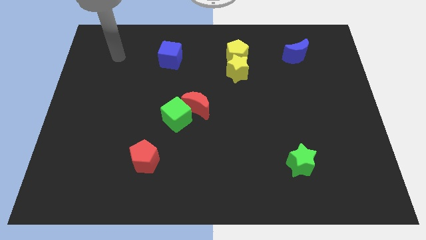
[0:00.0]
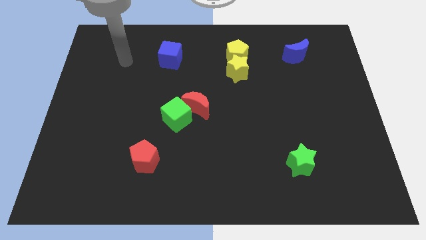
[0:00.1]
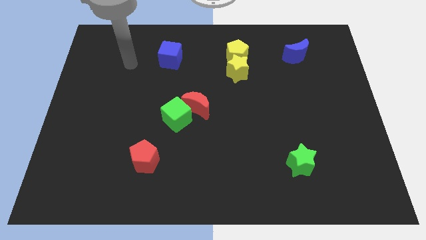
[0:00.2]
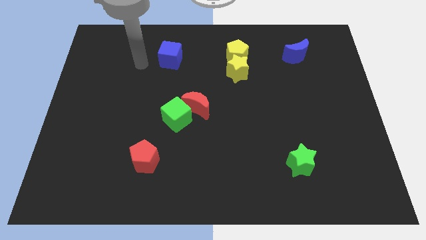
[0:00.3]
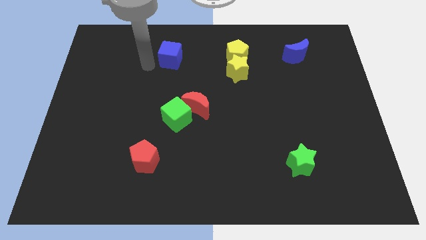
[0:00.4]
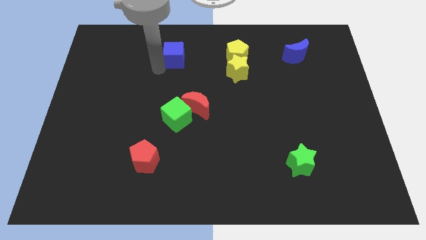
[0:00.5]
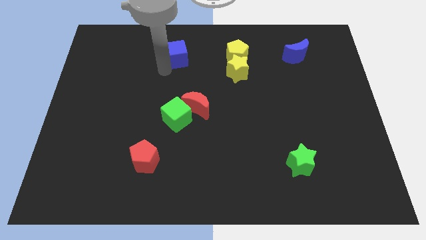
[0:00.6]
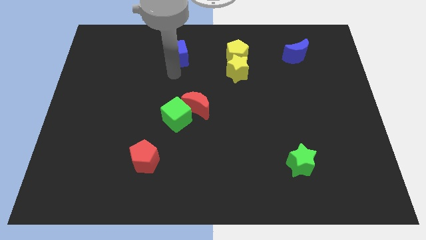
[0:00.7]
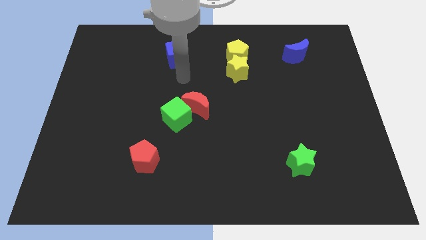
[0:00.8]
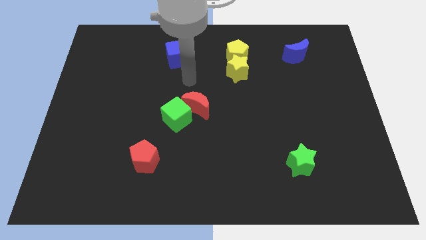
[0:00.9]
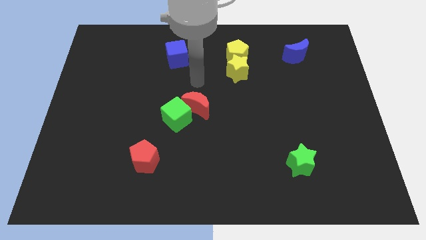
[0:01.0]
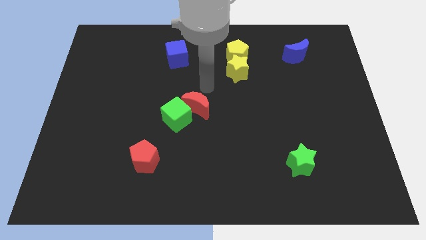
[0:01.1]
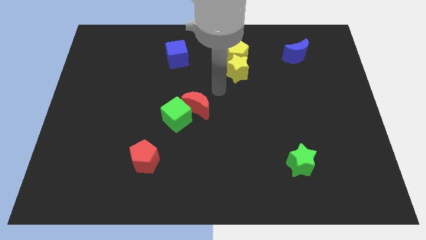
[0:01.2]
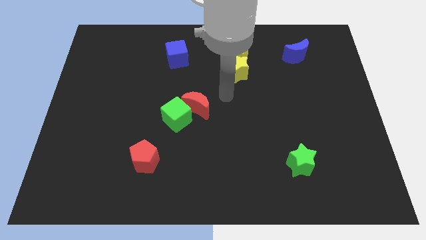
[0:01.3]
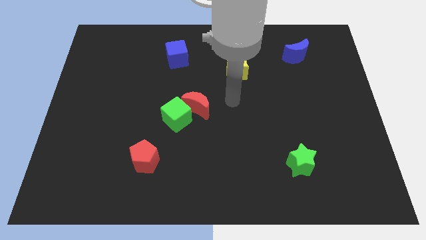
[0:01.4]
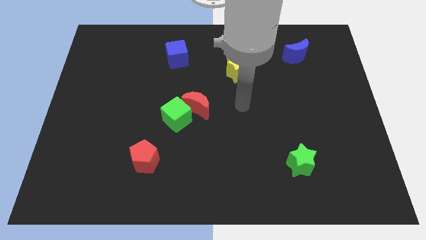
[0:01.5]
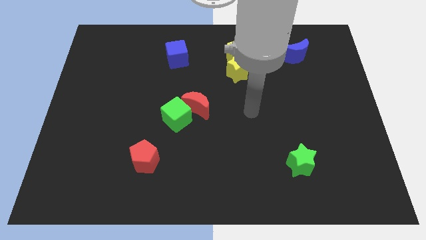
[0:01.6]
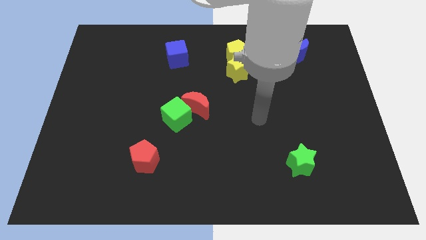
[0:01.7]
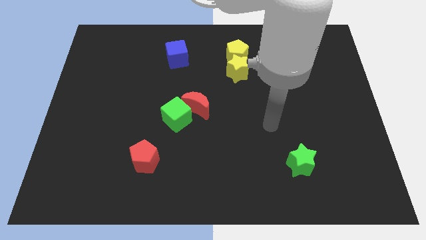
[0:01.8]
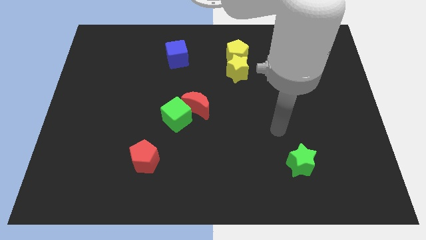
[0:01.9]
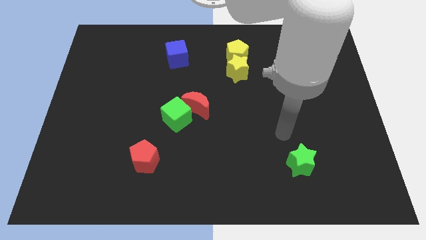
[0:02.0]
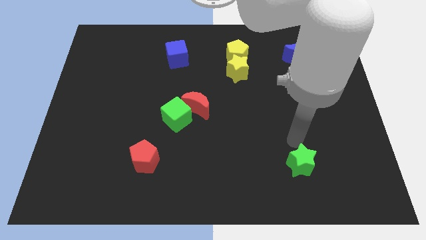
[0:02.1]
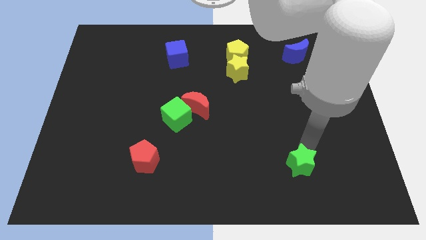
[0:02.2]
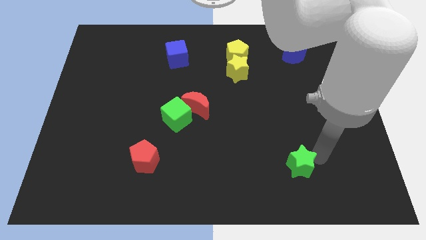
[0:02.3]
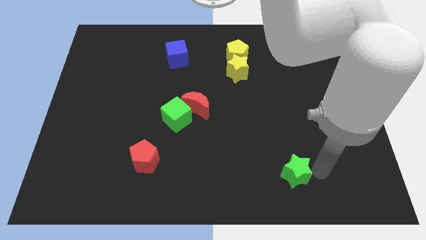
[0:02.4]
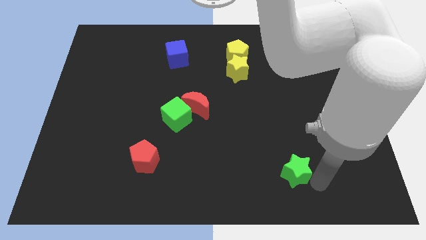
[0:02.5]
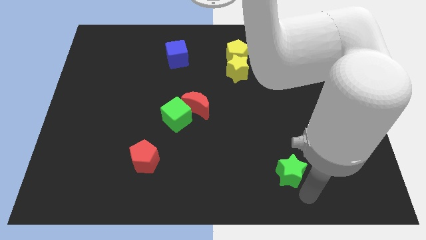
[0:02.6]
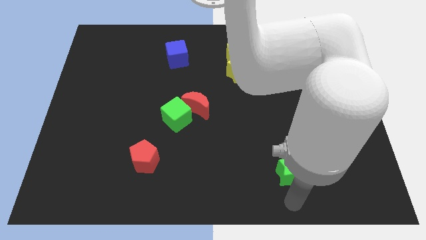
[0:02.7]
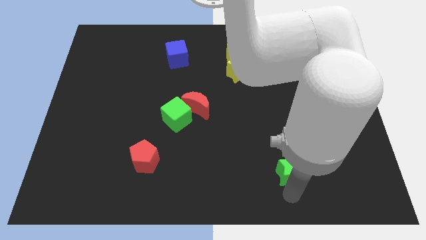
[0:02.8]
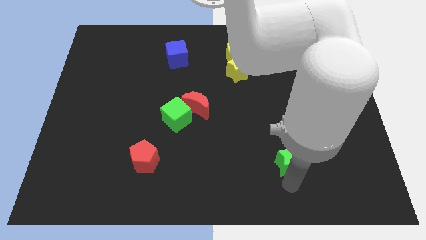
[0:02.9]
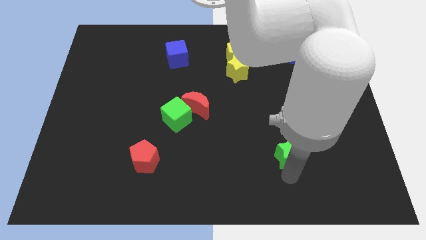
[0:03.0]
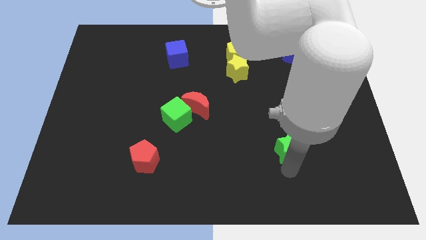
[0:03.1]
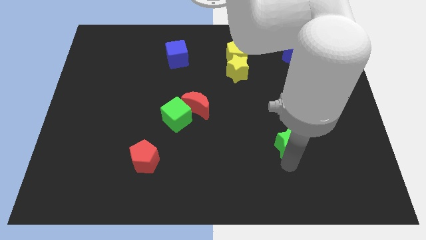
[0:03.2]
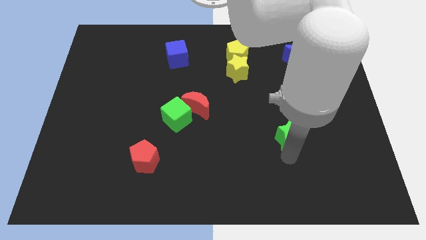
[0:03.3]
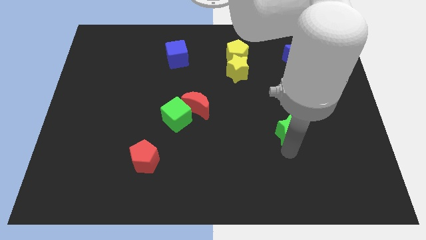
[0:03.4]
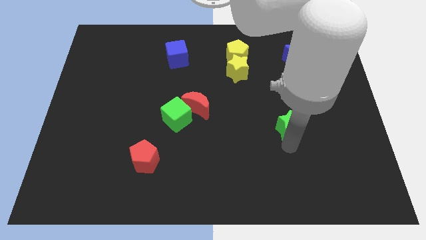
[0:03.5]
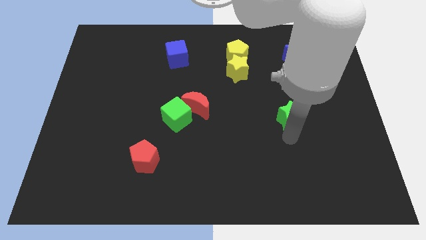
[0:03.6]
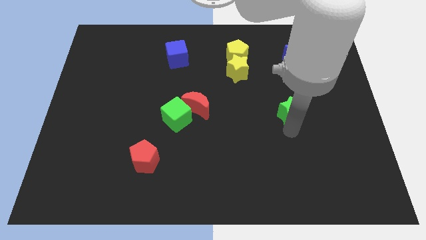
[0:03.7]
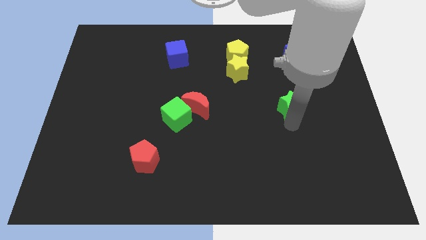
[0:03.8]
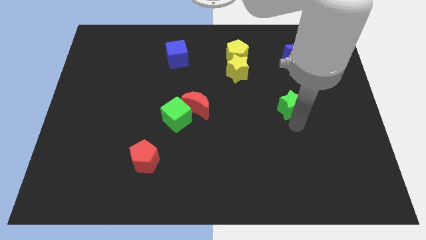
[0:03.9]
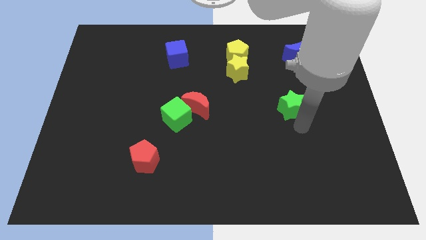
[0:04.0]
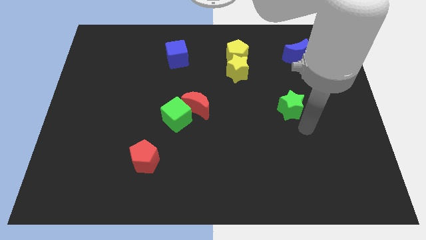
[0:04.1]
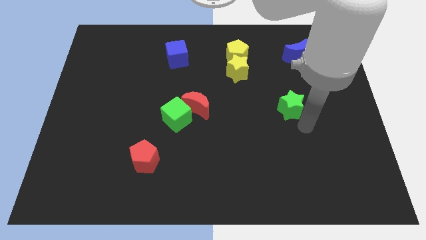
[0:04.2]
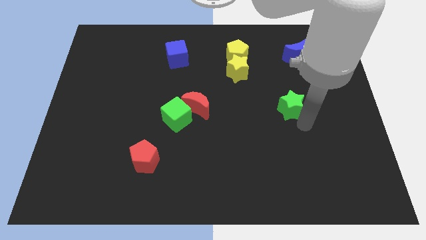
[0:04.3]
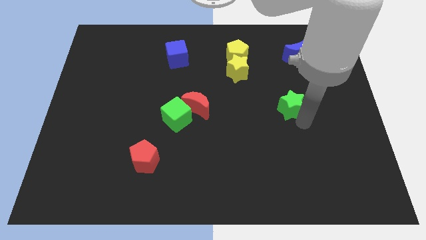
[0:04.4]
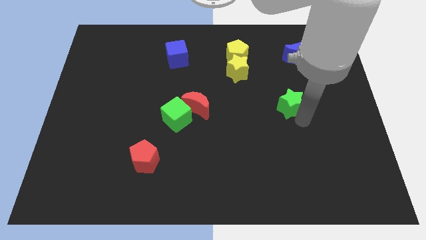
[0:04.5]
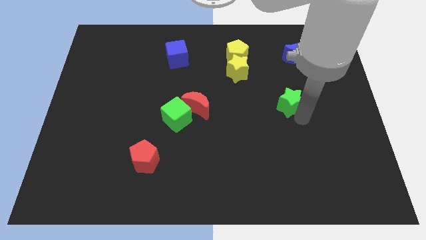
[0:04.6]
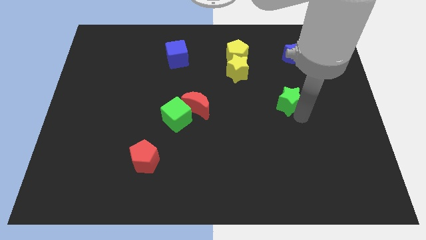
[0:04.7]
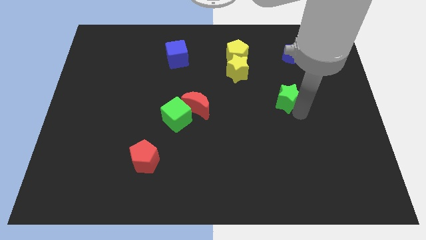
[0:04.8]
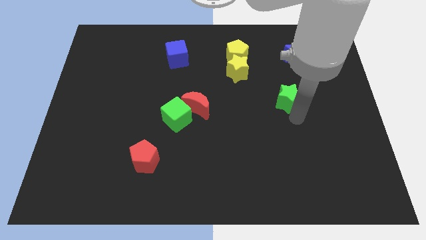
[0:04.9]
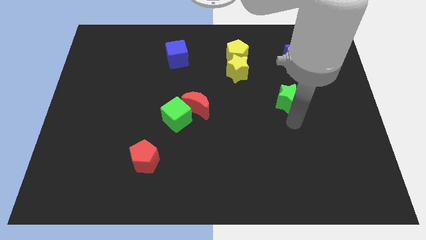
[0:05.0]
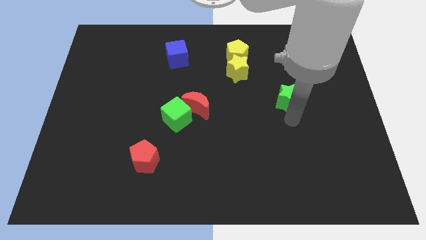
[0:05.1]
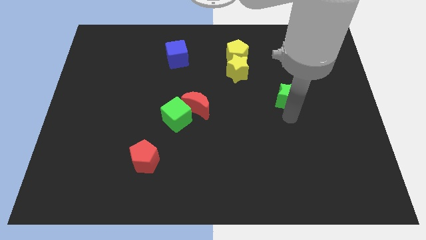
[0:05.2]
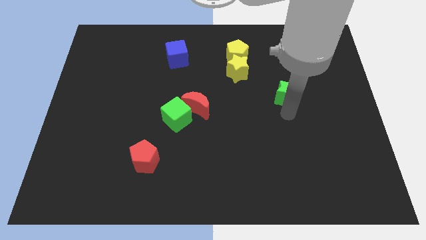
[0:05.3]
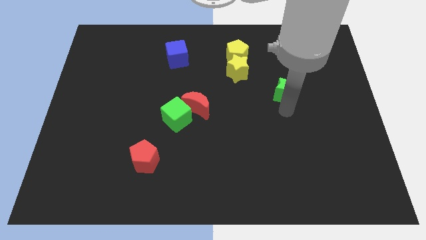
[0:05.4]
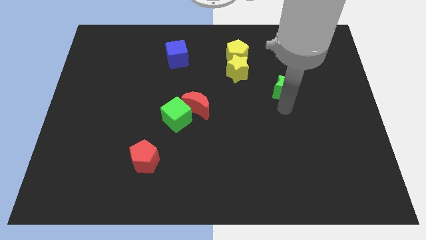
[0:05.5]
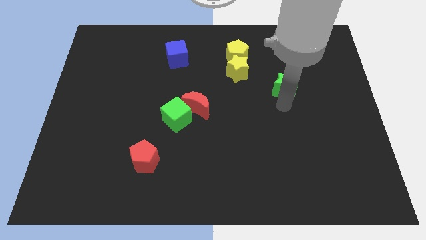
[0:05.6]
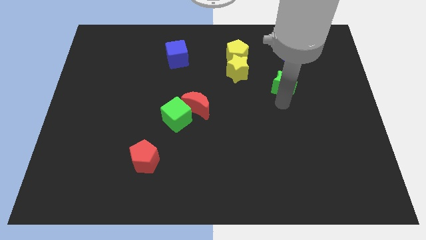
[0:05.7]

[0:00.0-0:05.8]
move the green star to the right of the yellow star
